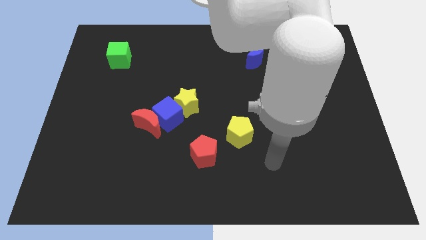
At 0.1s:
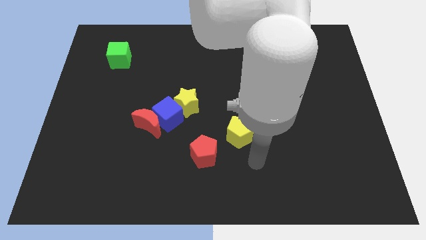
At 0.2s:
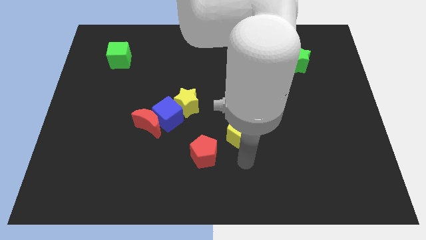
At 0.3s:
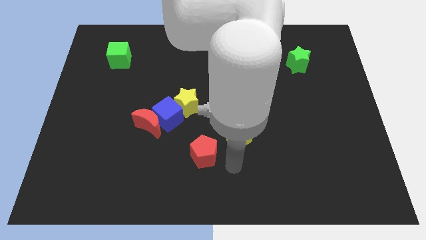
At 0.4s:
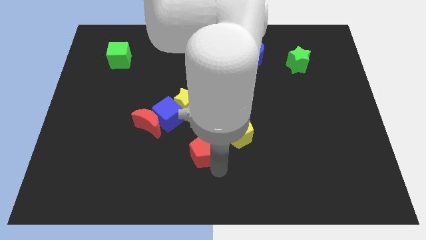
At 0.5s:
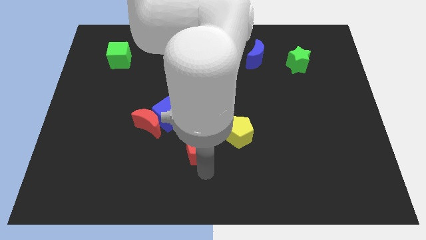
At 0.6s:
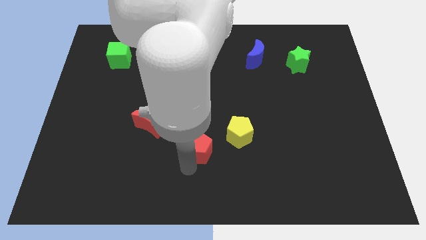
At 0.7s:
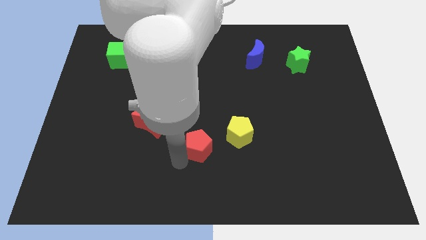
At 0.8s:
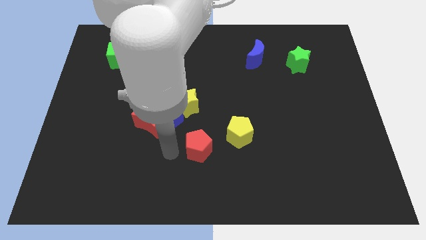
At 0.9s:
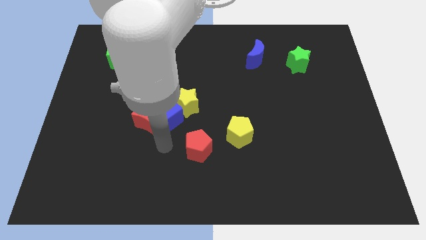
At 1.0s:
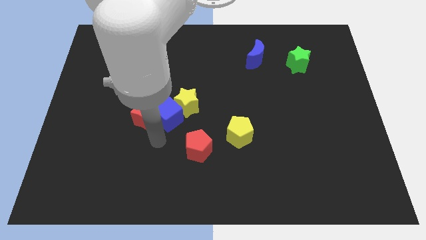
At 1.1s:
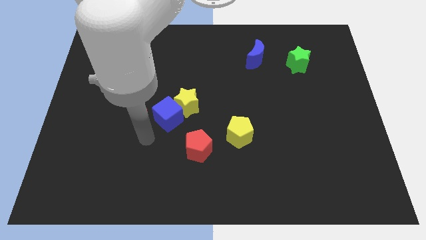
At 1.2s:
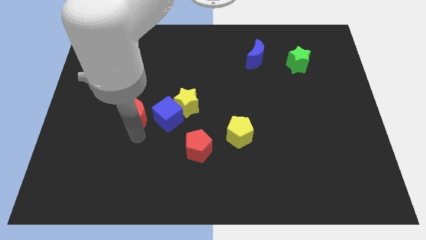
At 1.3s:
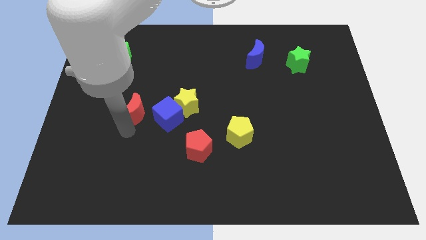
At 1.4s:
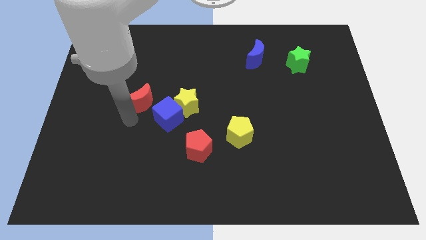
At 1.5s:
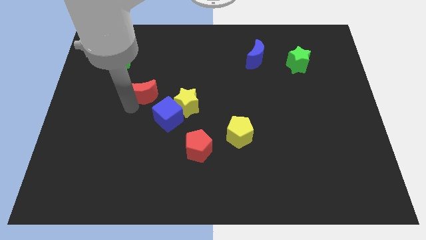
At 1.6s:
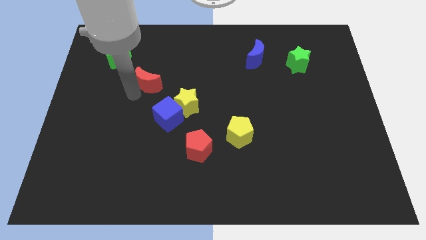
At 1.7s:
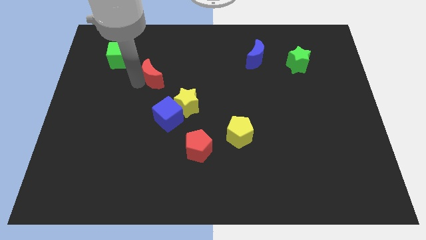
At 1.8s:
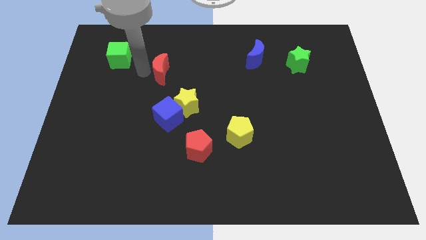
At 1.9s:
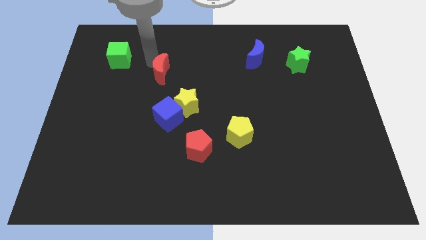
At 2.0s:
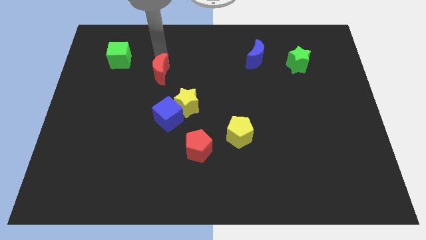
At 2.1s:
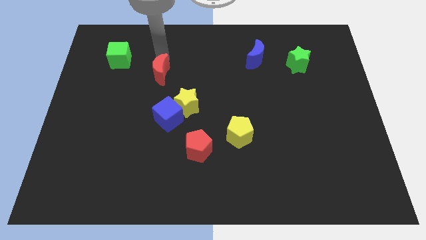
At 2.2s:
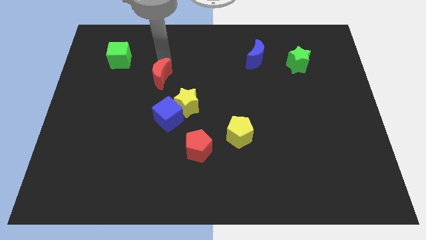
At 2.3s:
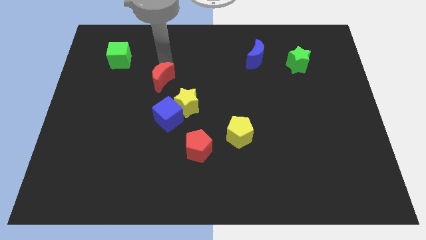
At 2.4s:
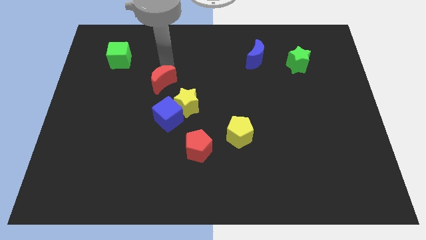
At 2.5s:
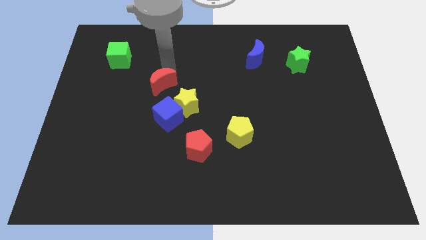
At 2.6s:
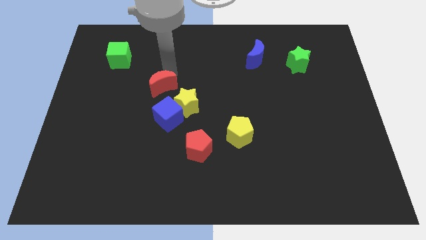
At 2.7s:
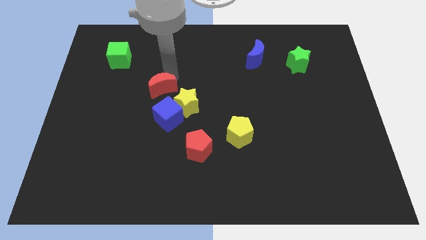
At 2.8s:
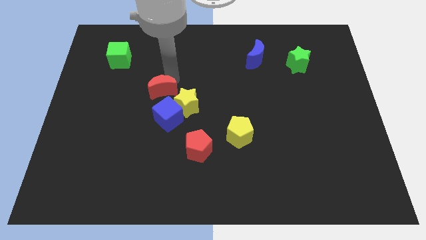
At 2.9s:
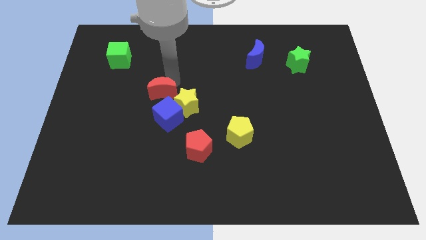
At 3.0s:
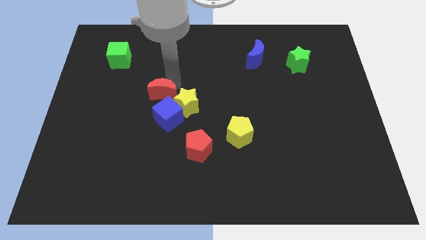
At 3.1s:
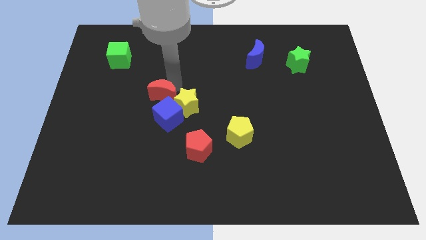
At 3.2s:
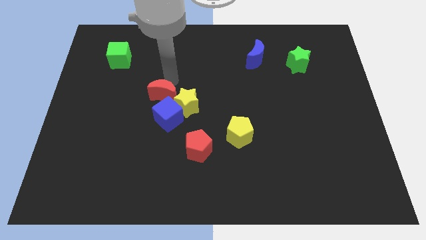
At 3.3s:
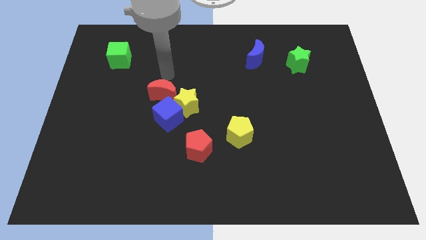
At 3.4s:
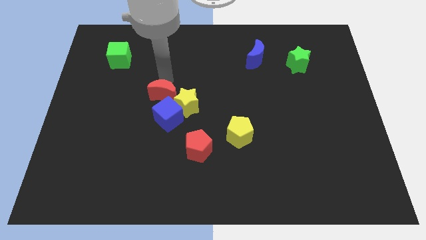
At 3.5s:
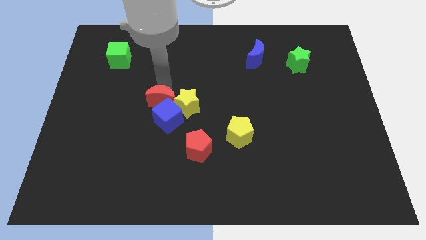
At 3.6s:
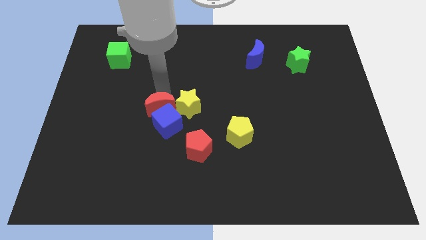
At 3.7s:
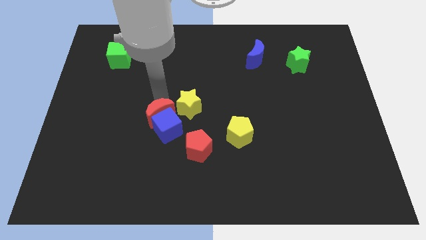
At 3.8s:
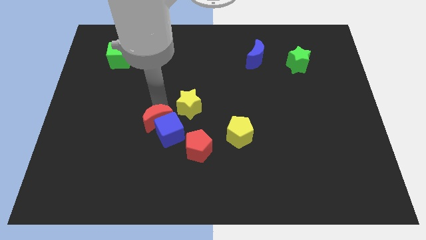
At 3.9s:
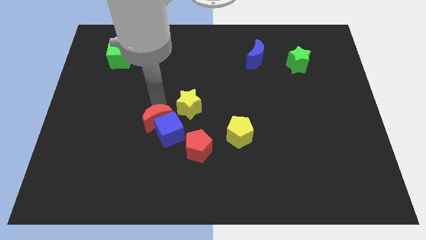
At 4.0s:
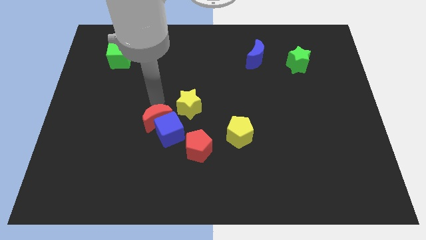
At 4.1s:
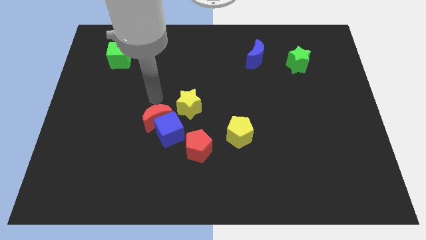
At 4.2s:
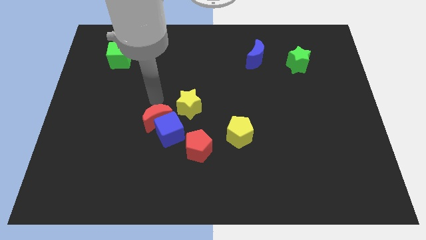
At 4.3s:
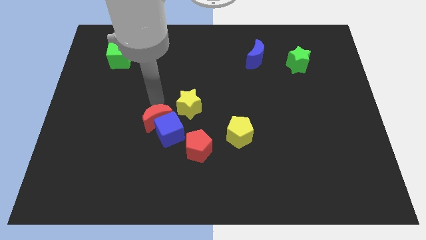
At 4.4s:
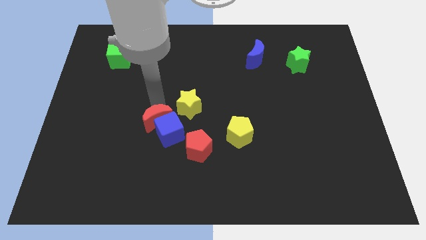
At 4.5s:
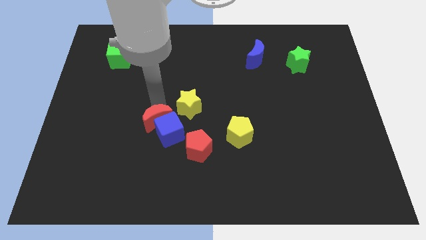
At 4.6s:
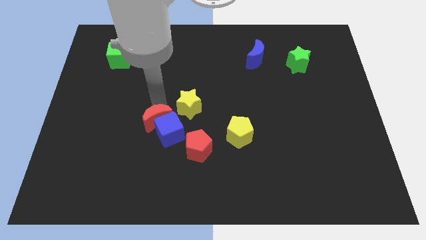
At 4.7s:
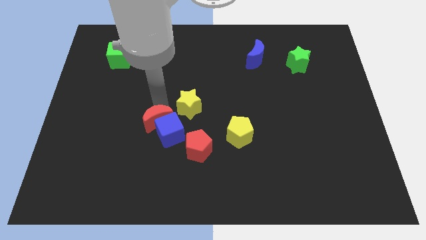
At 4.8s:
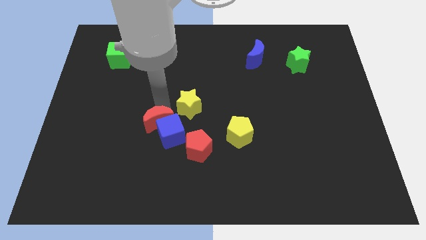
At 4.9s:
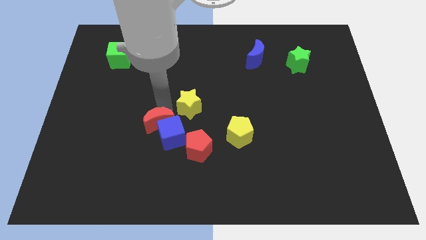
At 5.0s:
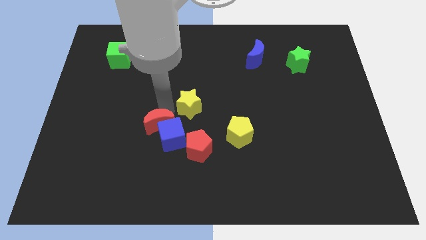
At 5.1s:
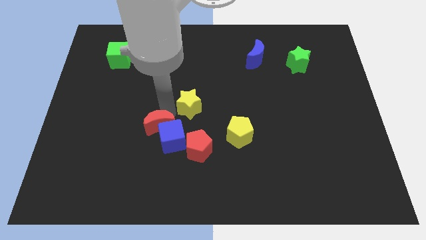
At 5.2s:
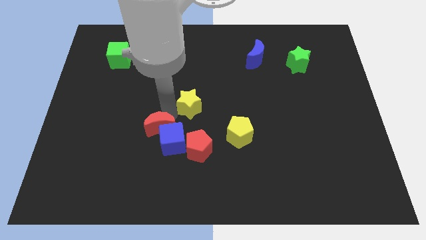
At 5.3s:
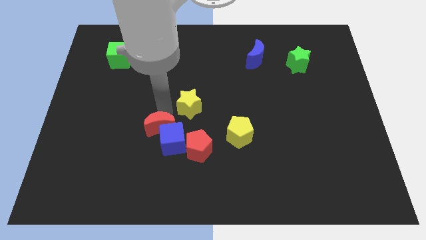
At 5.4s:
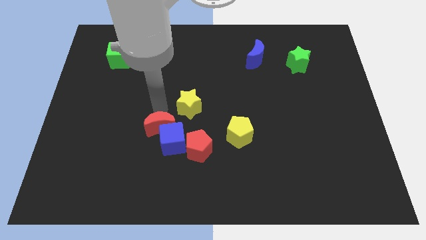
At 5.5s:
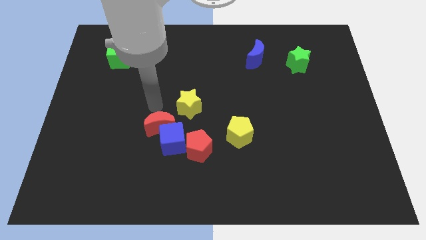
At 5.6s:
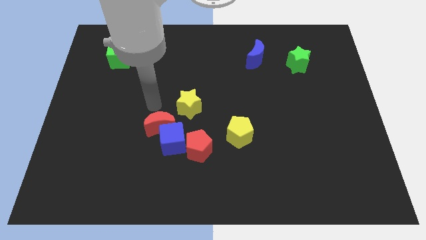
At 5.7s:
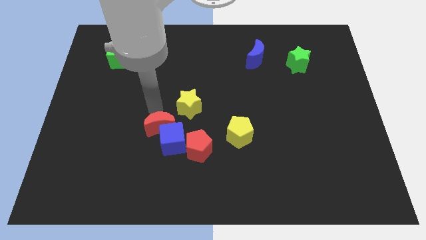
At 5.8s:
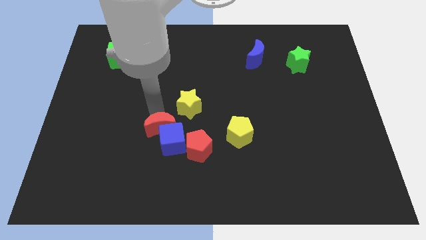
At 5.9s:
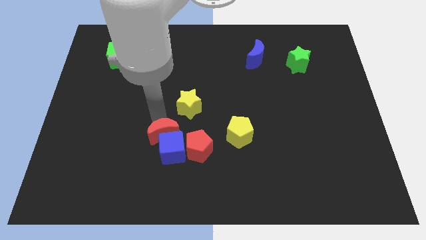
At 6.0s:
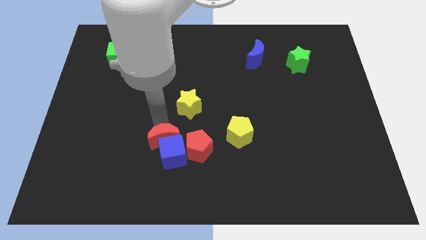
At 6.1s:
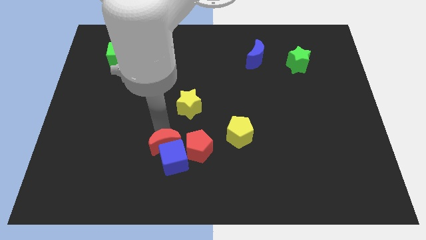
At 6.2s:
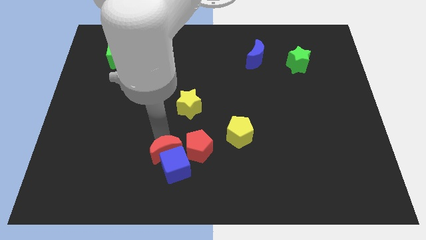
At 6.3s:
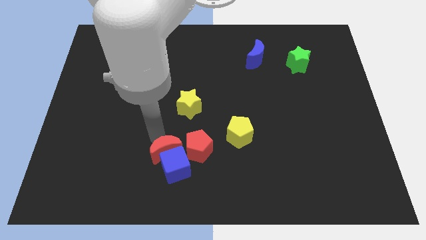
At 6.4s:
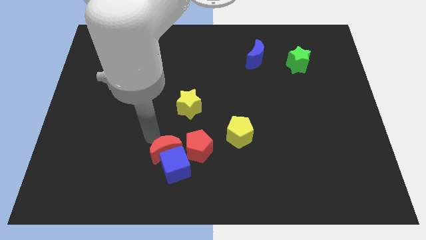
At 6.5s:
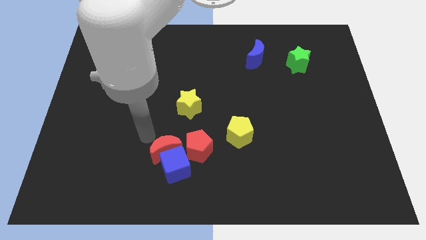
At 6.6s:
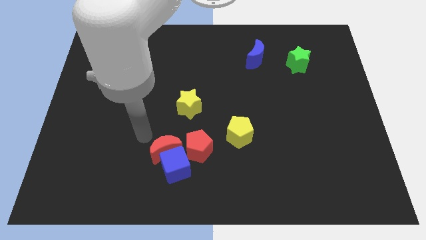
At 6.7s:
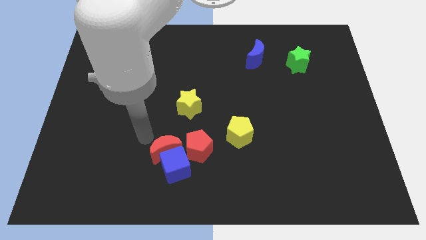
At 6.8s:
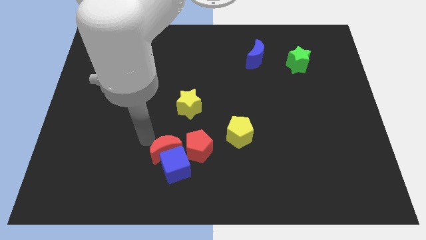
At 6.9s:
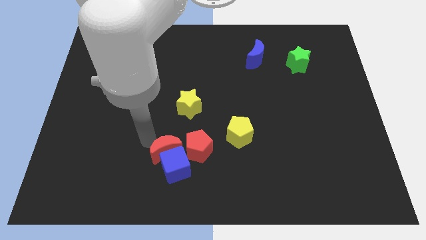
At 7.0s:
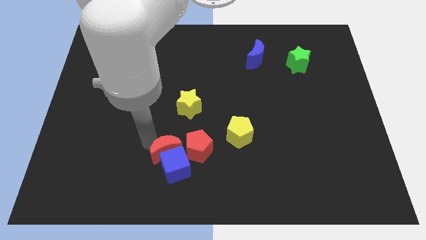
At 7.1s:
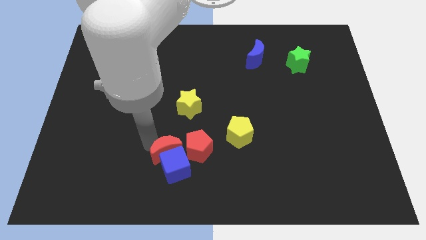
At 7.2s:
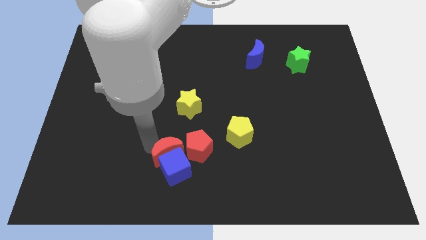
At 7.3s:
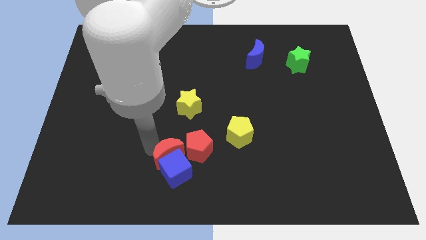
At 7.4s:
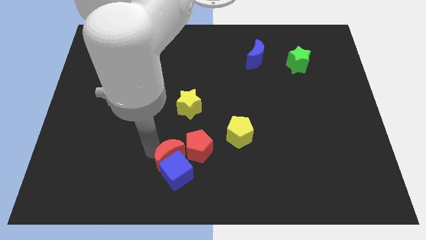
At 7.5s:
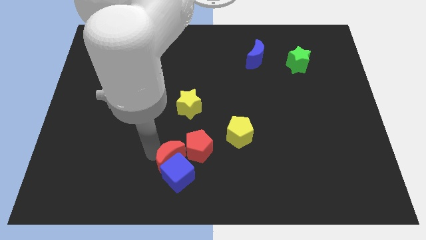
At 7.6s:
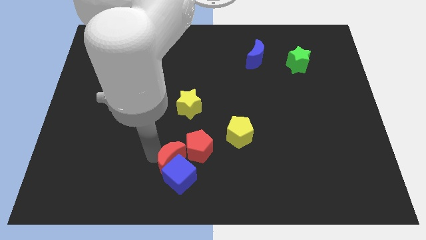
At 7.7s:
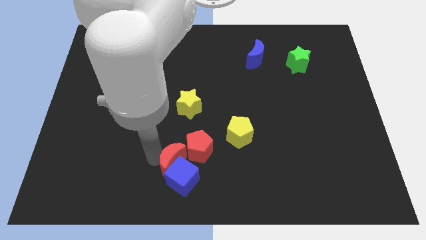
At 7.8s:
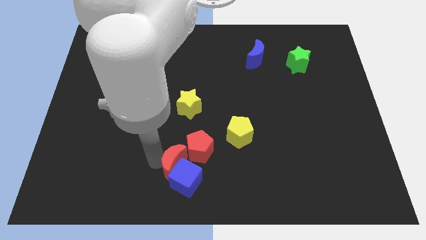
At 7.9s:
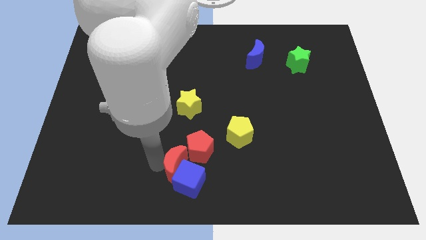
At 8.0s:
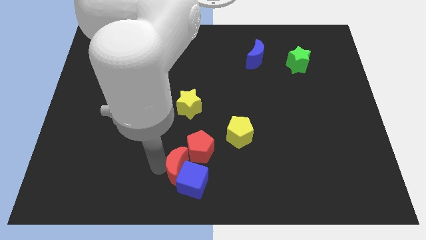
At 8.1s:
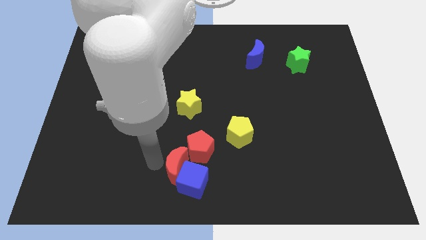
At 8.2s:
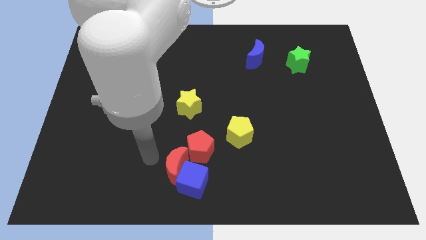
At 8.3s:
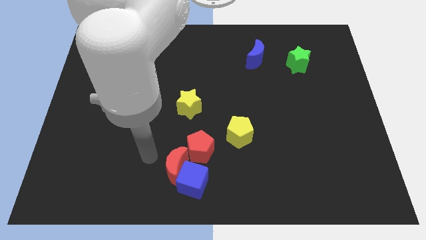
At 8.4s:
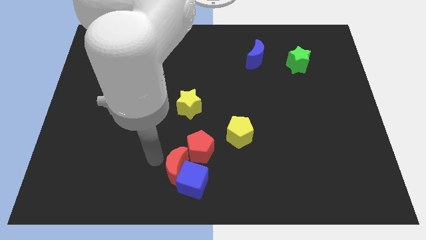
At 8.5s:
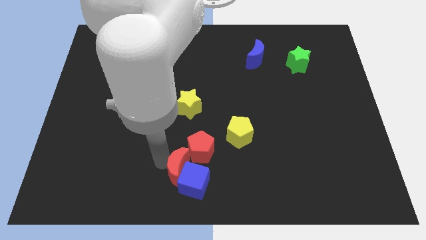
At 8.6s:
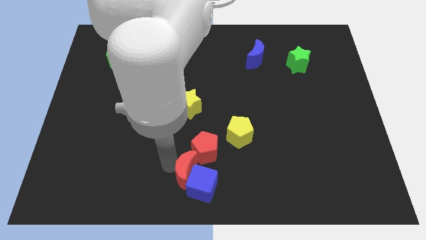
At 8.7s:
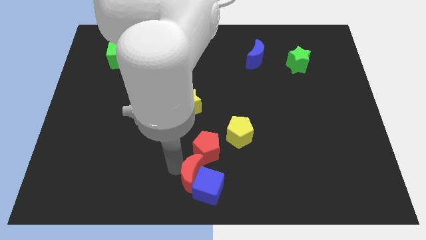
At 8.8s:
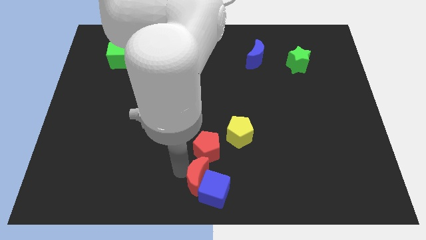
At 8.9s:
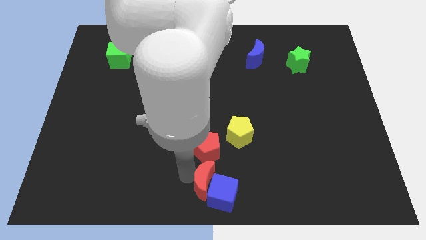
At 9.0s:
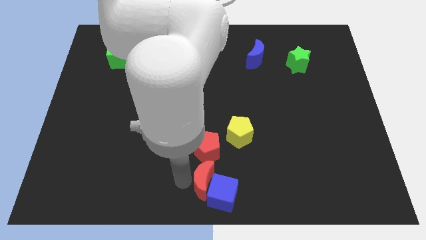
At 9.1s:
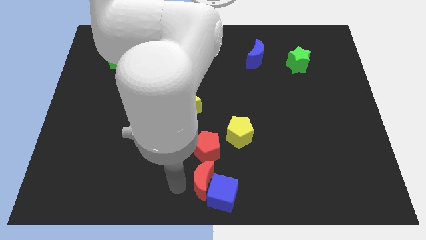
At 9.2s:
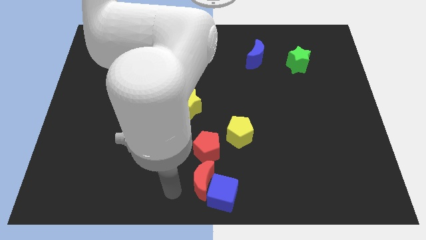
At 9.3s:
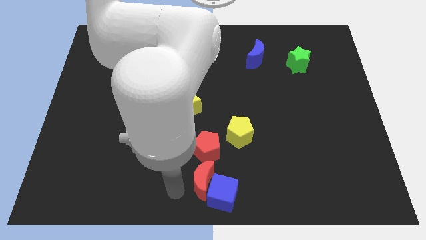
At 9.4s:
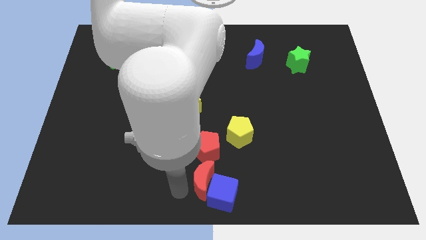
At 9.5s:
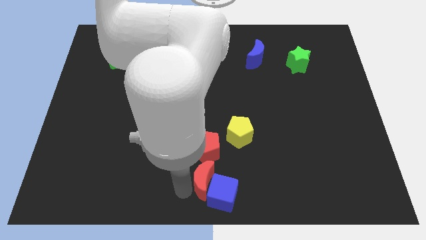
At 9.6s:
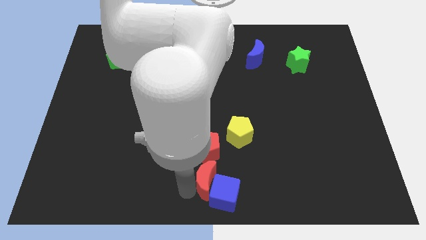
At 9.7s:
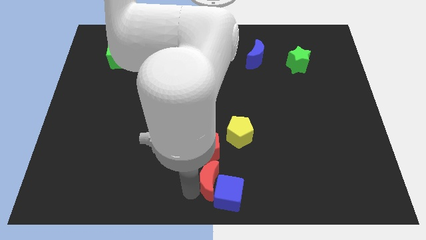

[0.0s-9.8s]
push the red moon to the bottom right side of the red pentagon
